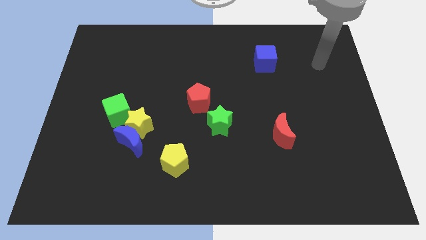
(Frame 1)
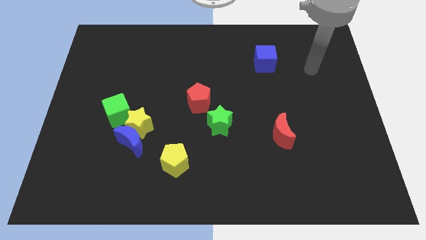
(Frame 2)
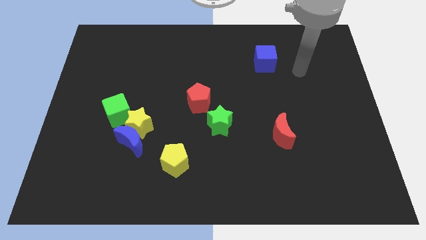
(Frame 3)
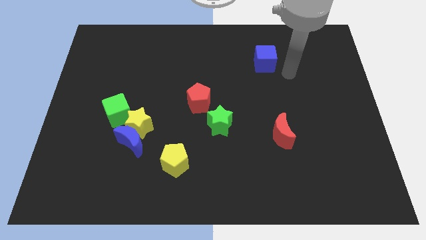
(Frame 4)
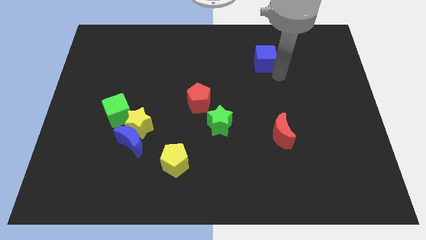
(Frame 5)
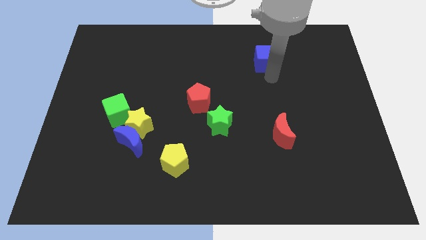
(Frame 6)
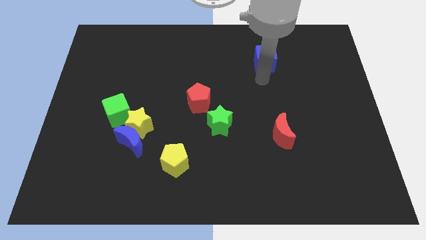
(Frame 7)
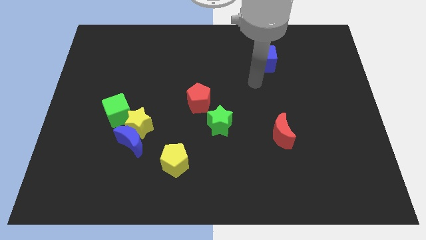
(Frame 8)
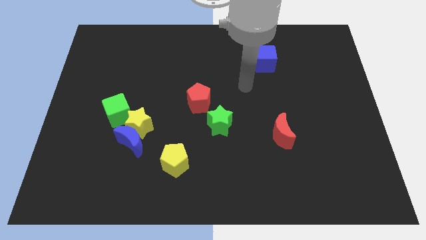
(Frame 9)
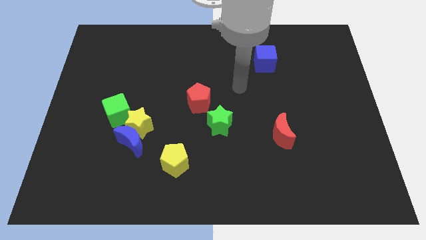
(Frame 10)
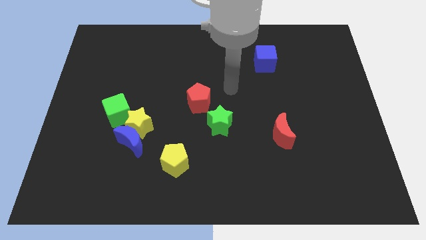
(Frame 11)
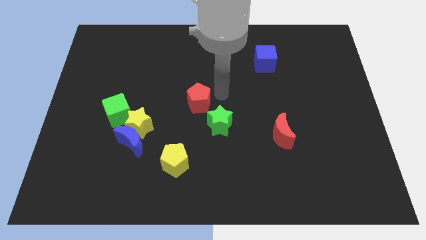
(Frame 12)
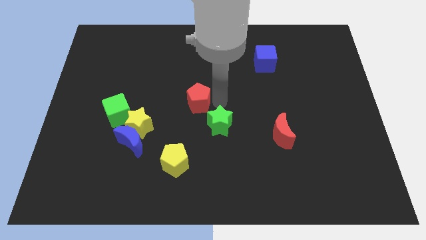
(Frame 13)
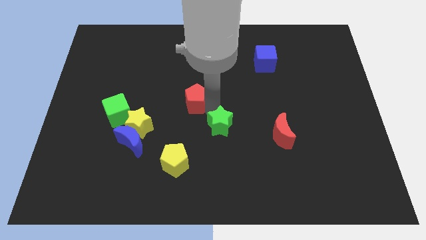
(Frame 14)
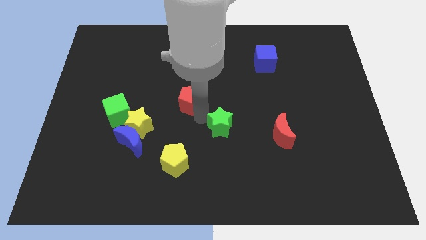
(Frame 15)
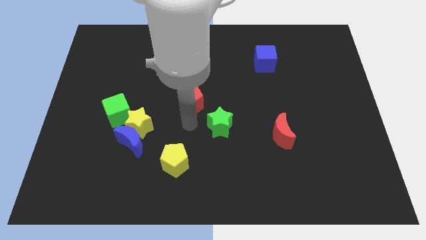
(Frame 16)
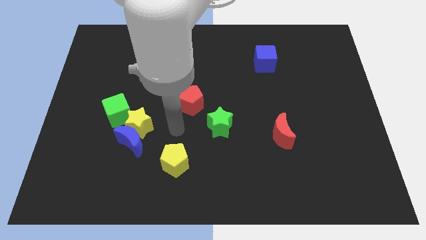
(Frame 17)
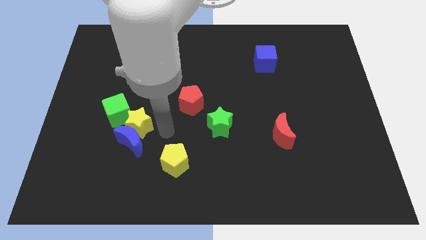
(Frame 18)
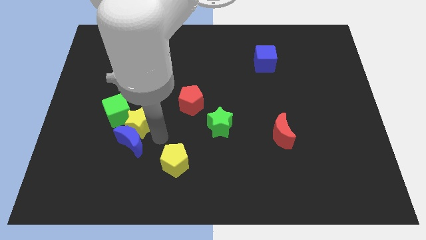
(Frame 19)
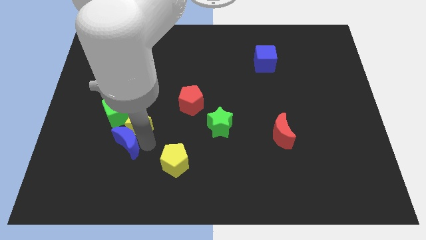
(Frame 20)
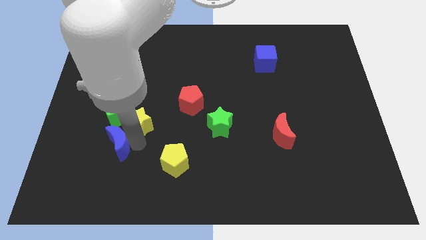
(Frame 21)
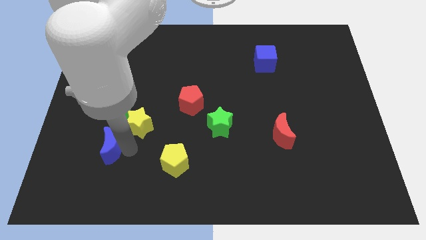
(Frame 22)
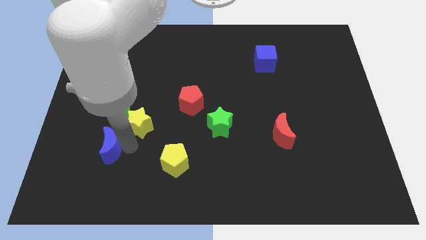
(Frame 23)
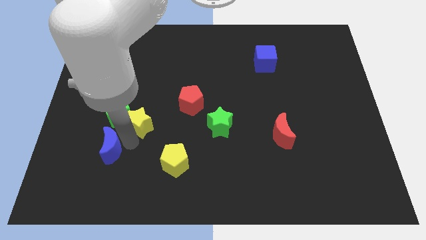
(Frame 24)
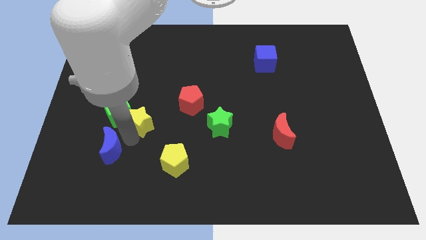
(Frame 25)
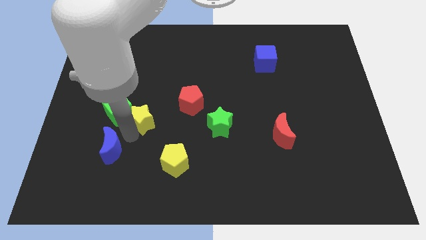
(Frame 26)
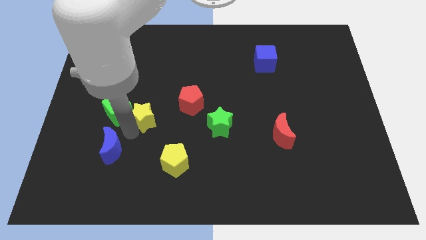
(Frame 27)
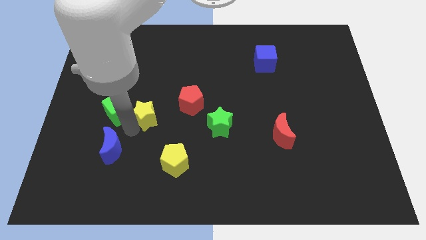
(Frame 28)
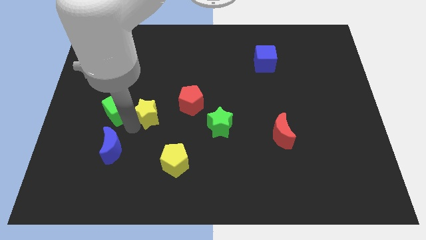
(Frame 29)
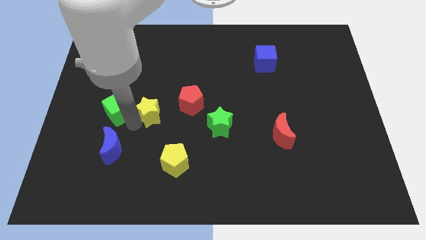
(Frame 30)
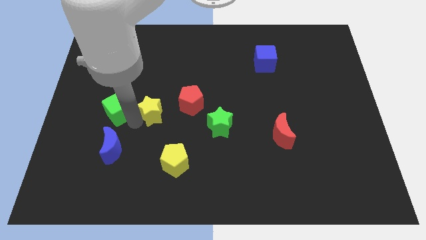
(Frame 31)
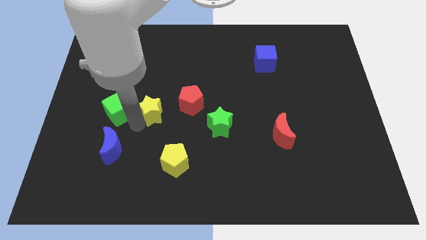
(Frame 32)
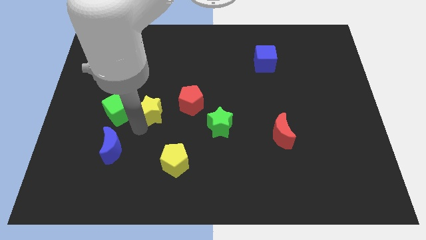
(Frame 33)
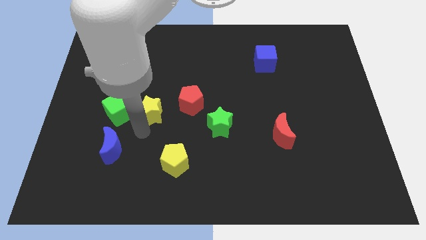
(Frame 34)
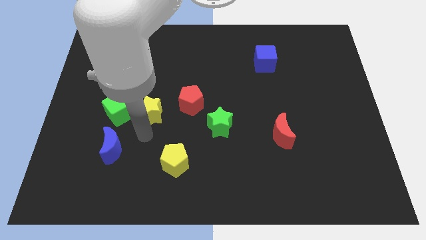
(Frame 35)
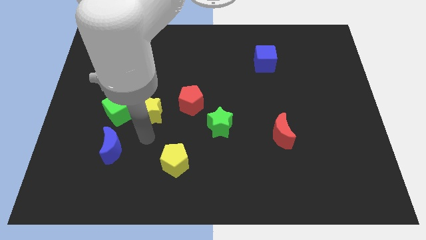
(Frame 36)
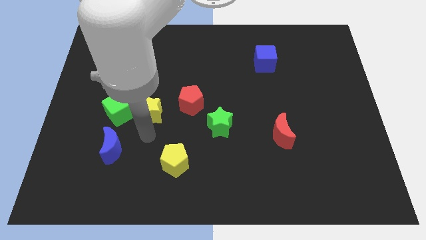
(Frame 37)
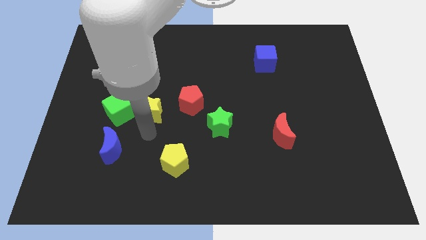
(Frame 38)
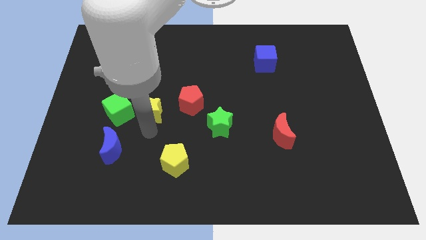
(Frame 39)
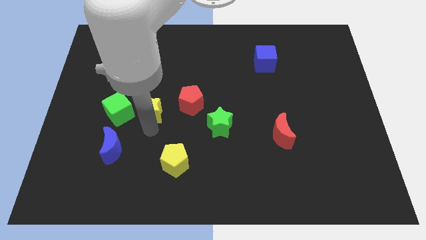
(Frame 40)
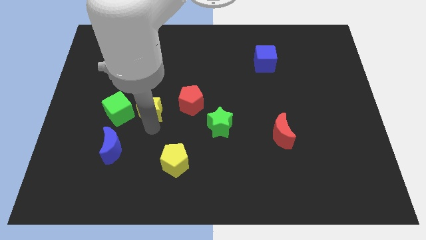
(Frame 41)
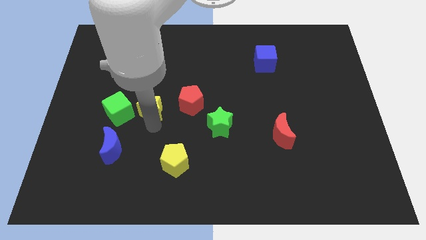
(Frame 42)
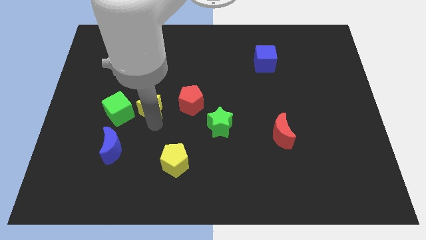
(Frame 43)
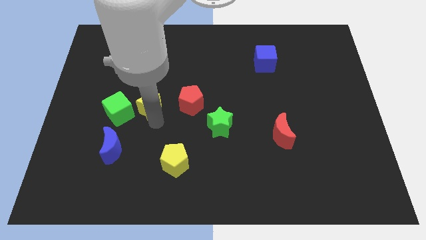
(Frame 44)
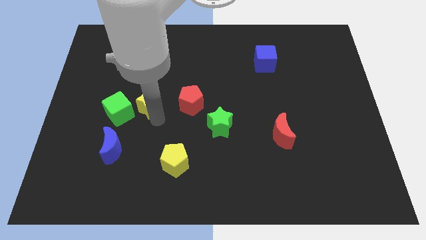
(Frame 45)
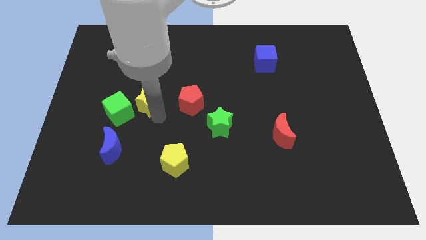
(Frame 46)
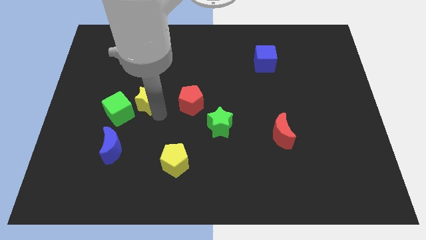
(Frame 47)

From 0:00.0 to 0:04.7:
slightly slide the yellow star up

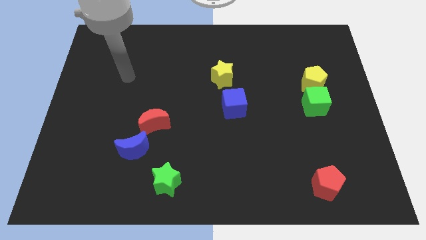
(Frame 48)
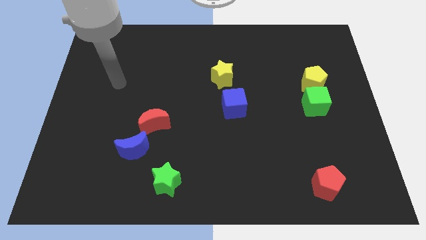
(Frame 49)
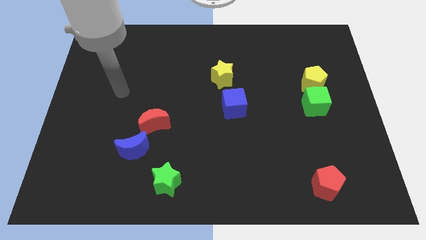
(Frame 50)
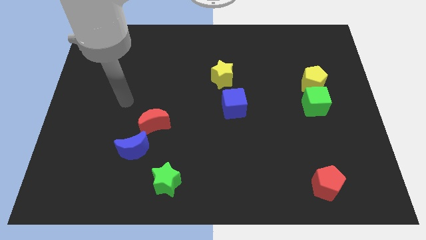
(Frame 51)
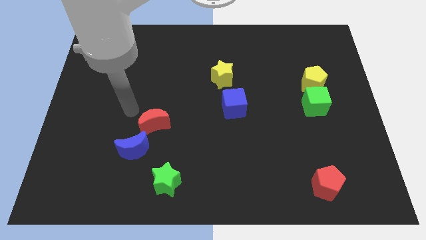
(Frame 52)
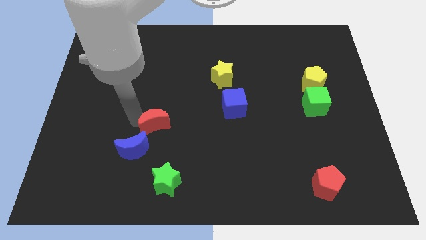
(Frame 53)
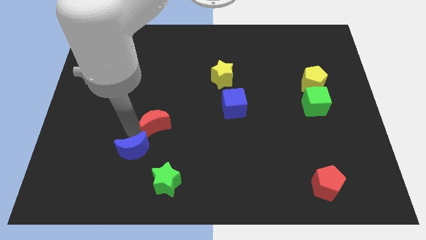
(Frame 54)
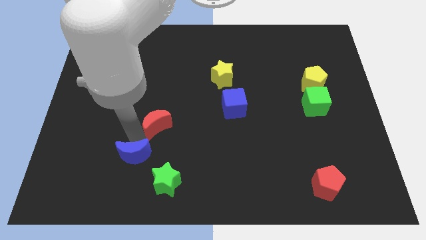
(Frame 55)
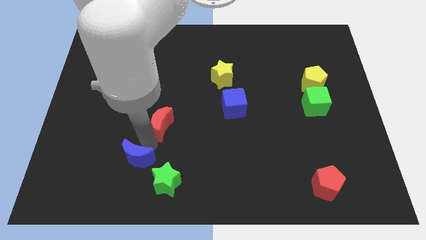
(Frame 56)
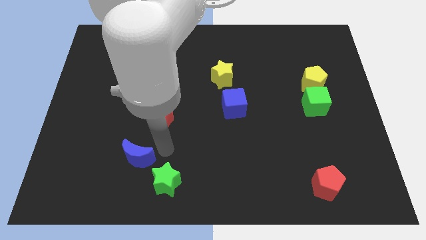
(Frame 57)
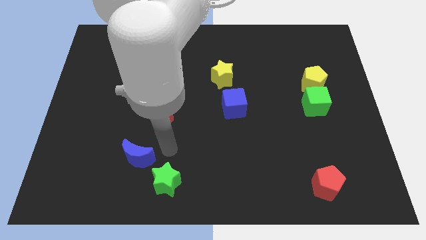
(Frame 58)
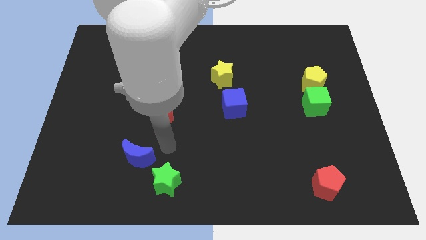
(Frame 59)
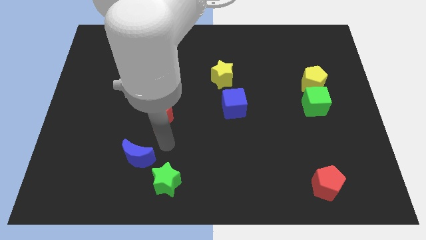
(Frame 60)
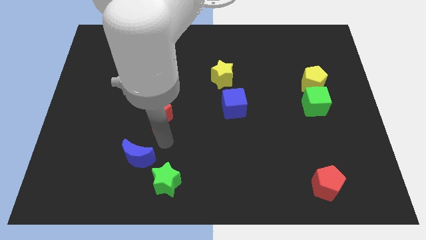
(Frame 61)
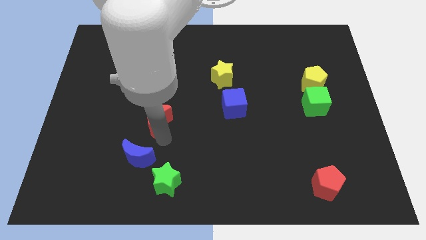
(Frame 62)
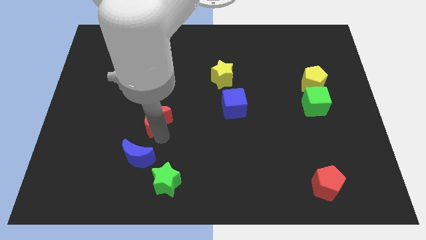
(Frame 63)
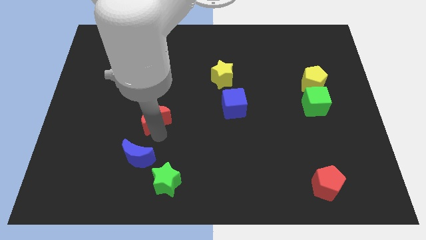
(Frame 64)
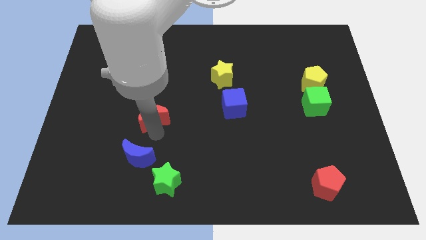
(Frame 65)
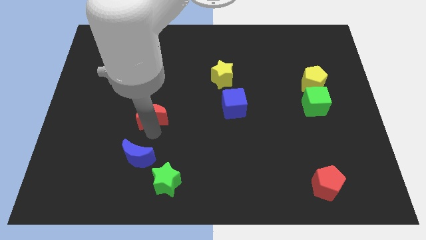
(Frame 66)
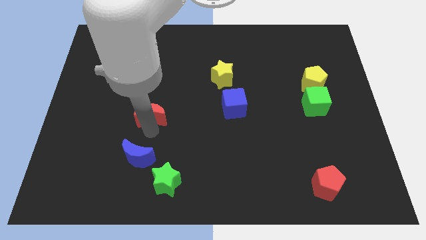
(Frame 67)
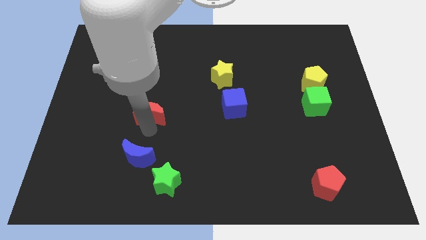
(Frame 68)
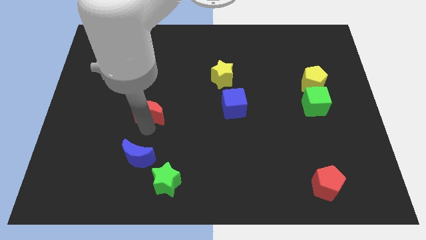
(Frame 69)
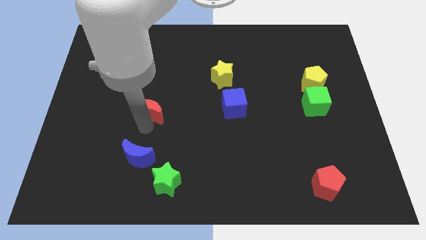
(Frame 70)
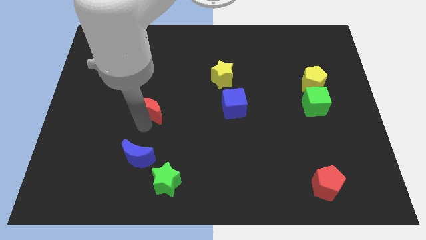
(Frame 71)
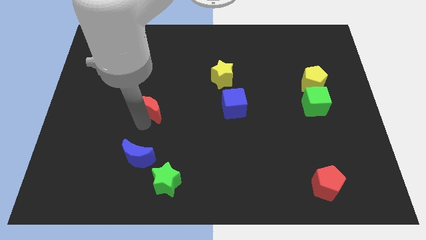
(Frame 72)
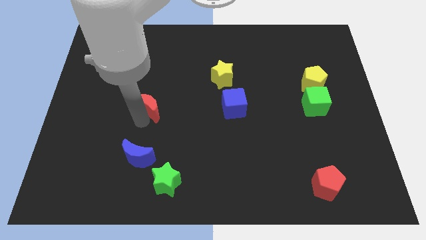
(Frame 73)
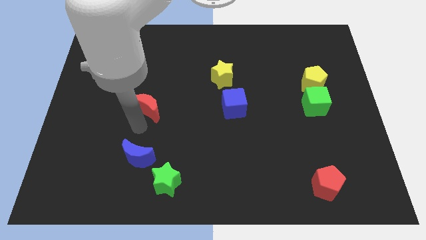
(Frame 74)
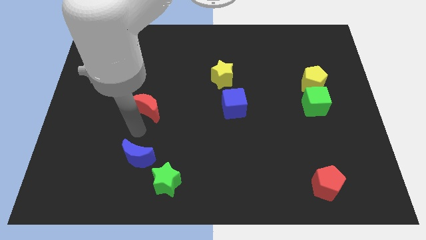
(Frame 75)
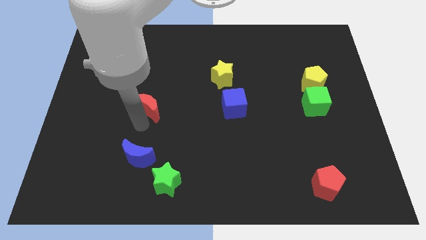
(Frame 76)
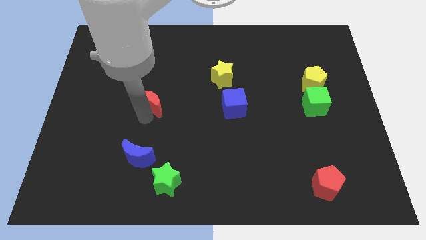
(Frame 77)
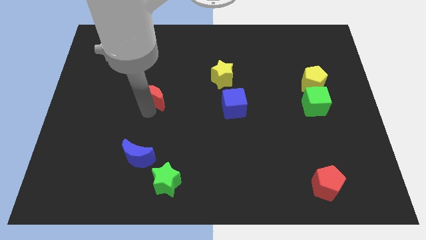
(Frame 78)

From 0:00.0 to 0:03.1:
slightly push the red moon upwards

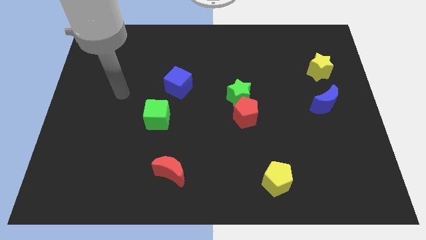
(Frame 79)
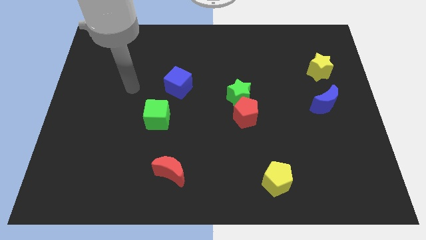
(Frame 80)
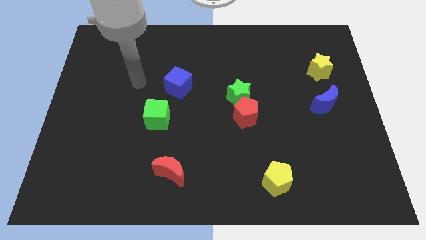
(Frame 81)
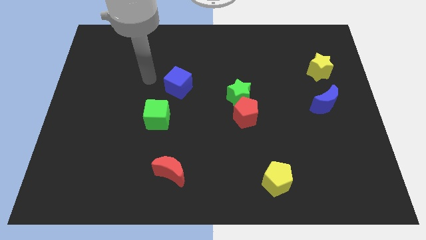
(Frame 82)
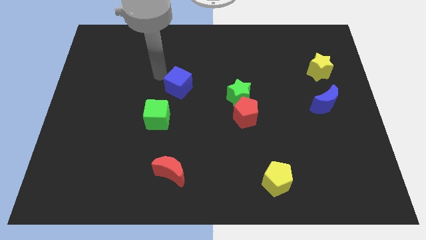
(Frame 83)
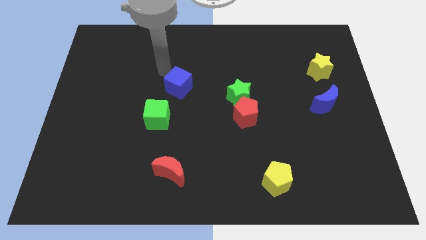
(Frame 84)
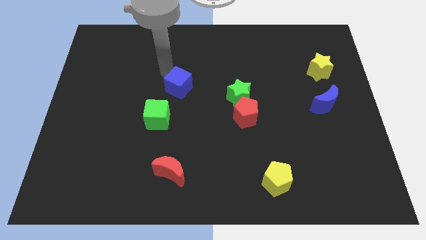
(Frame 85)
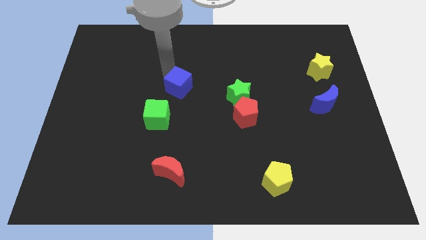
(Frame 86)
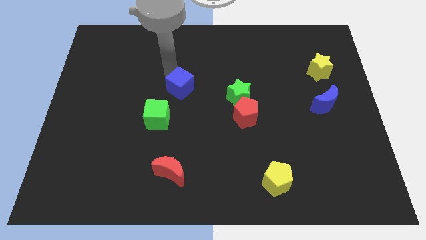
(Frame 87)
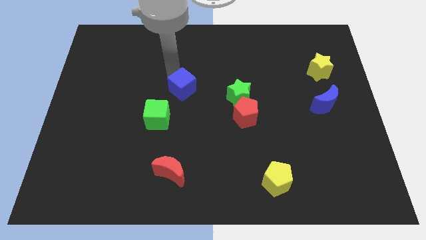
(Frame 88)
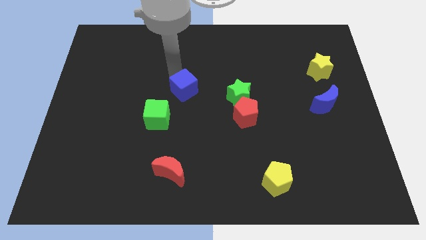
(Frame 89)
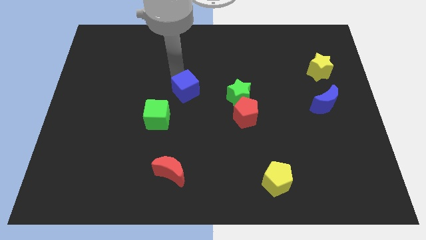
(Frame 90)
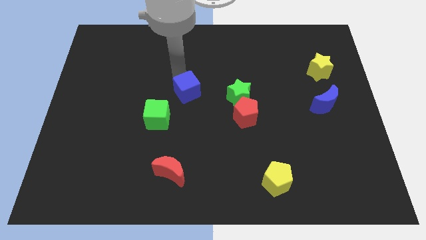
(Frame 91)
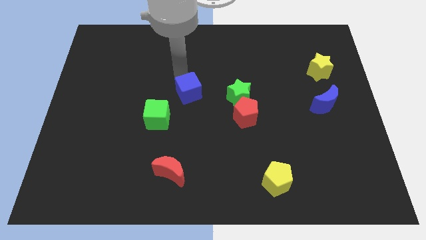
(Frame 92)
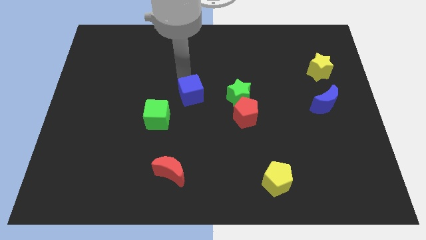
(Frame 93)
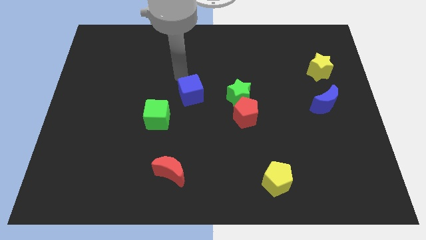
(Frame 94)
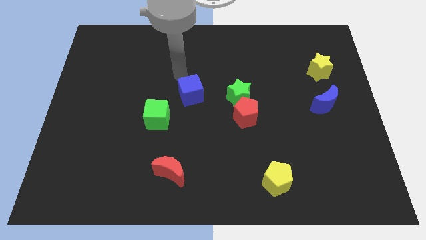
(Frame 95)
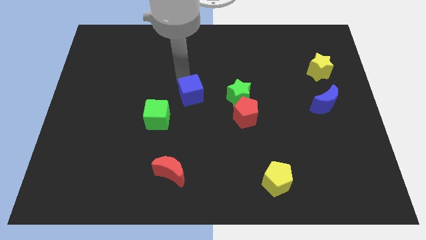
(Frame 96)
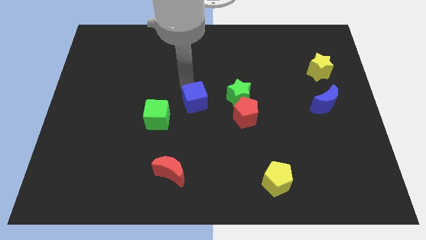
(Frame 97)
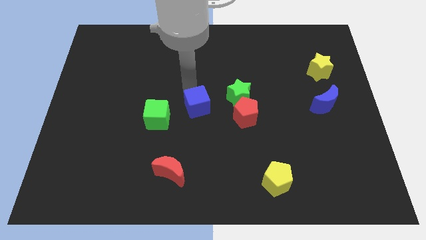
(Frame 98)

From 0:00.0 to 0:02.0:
move the blue cube downwards and right a little bit
